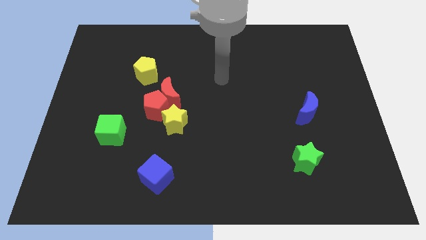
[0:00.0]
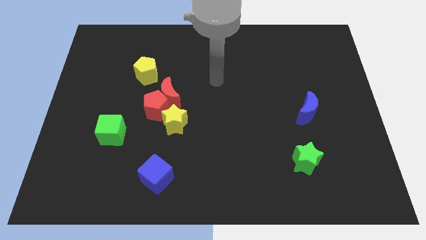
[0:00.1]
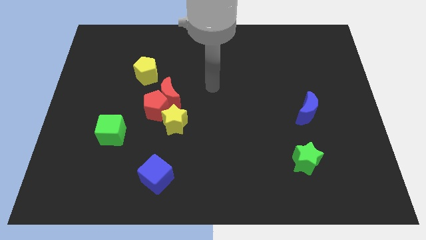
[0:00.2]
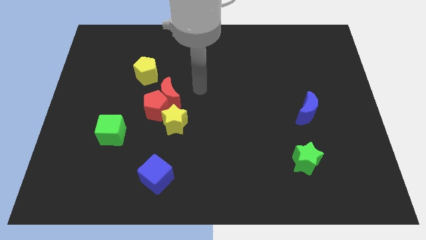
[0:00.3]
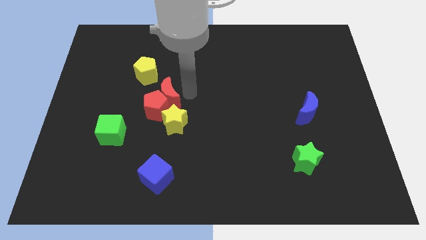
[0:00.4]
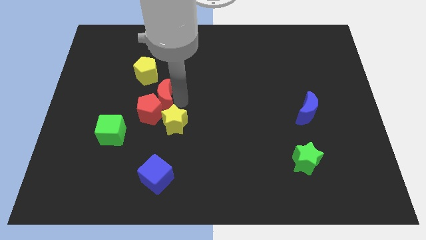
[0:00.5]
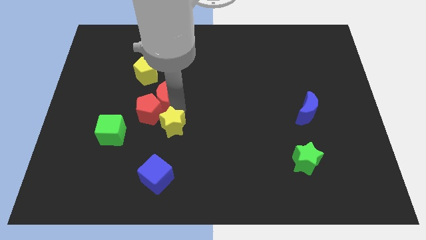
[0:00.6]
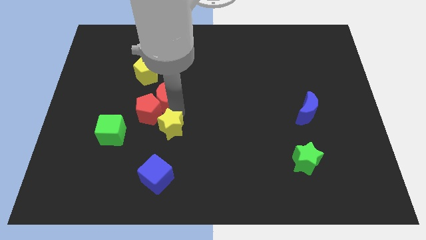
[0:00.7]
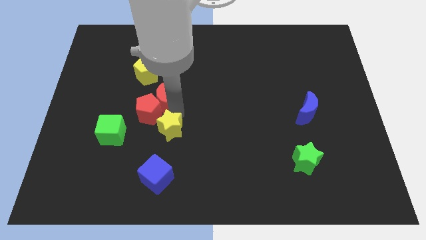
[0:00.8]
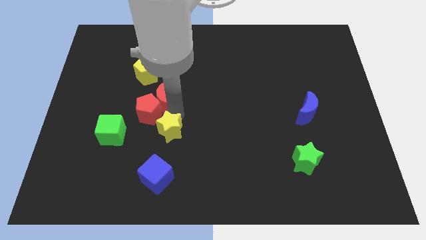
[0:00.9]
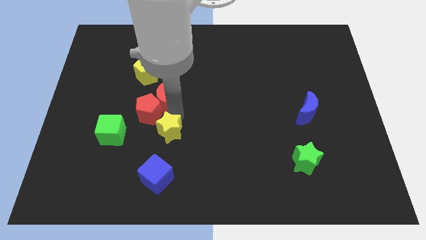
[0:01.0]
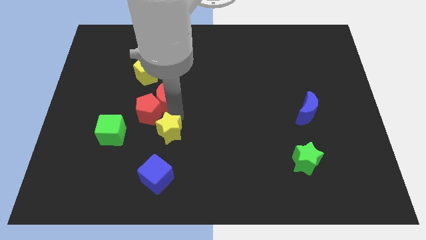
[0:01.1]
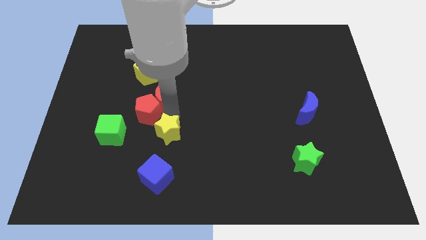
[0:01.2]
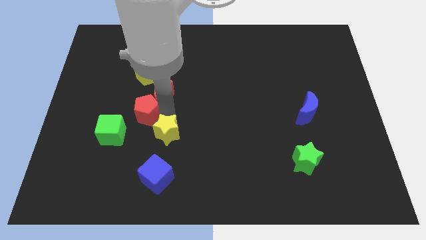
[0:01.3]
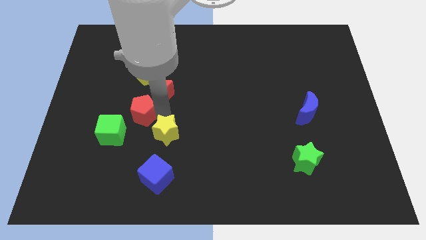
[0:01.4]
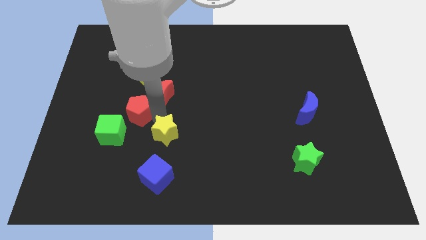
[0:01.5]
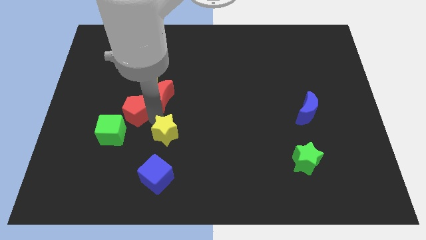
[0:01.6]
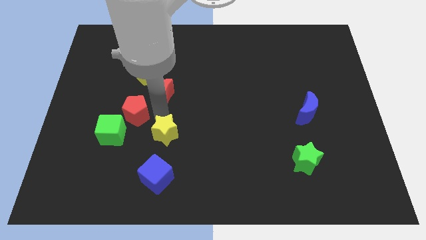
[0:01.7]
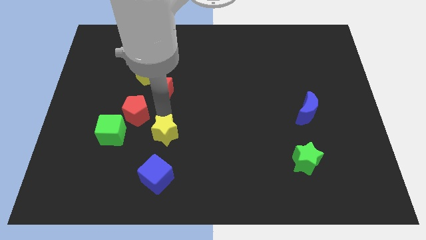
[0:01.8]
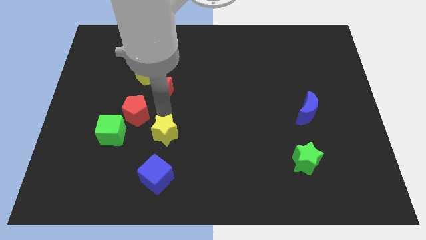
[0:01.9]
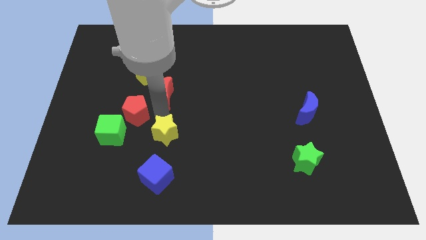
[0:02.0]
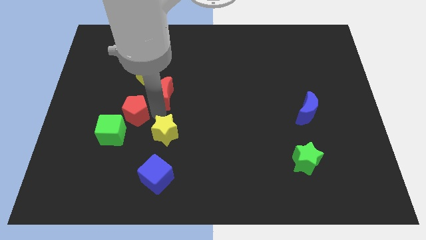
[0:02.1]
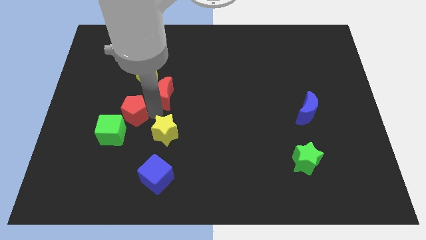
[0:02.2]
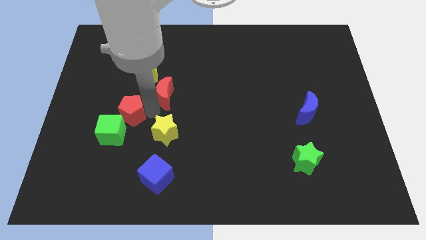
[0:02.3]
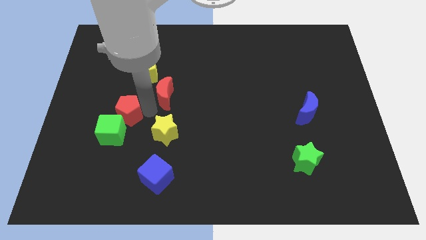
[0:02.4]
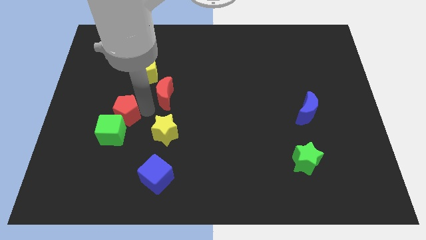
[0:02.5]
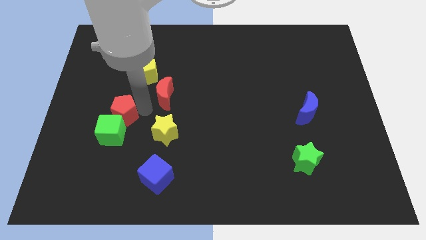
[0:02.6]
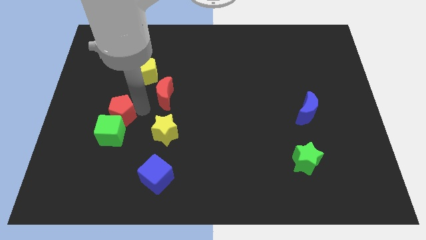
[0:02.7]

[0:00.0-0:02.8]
separate the red pentagon from the red moon and yellow star

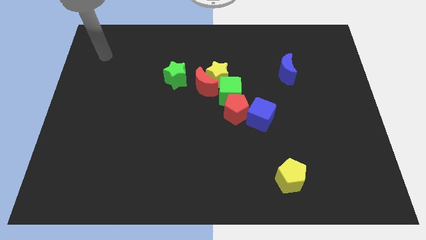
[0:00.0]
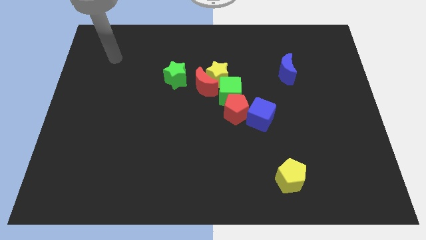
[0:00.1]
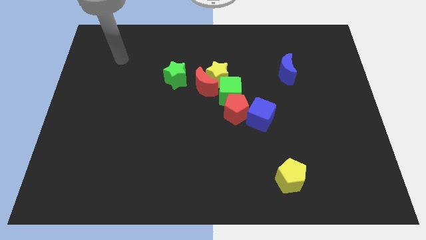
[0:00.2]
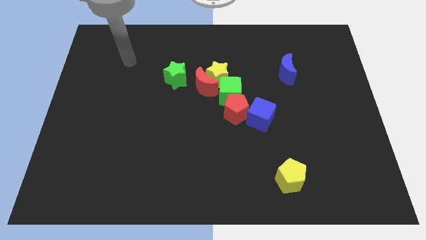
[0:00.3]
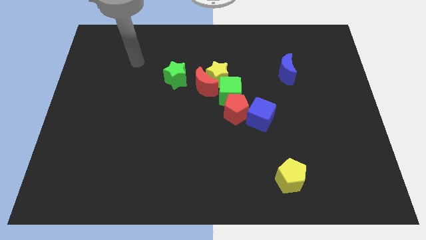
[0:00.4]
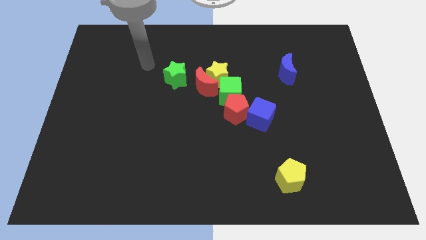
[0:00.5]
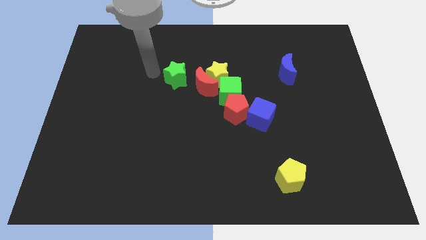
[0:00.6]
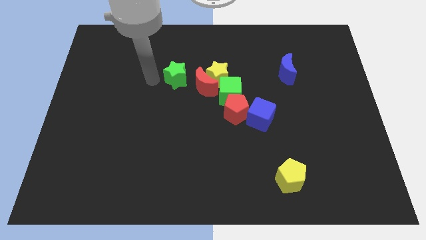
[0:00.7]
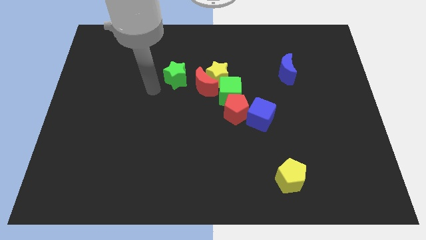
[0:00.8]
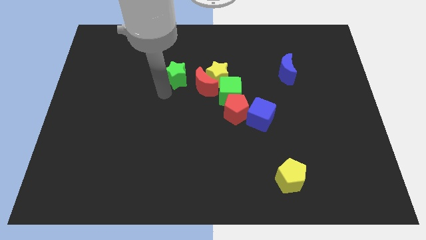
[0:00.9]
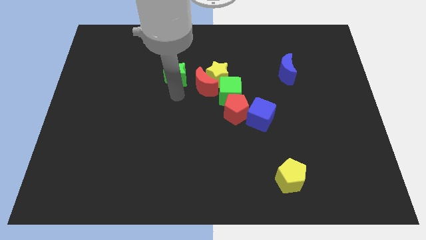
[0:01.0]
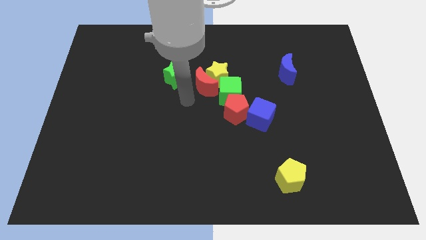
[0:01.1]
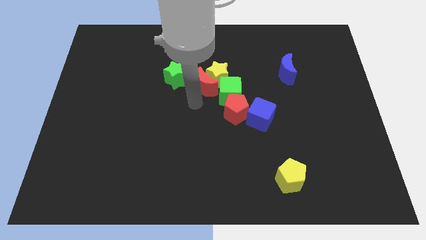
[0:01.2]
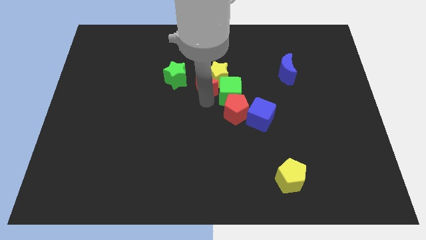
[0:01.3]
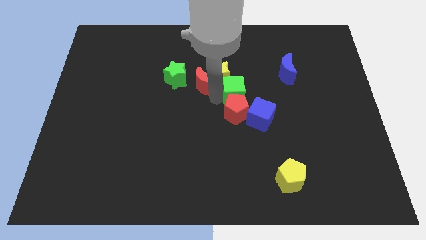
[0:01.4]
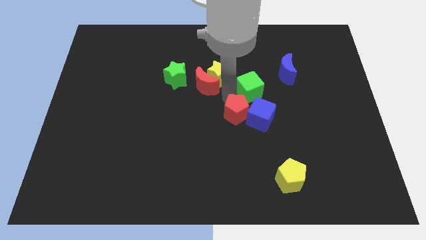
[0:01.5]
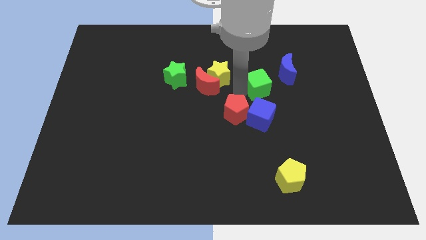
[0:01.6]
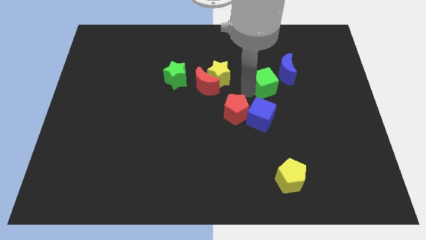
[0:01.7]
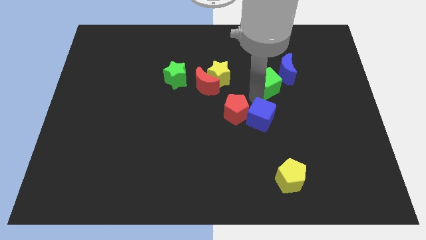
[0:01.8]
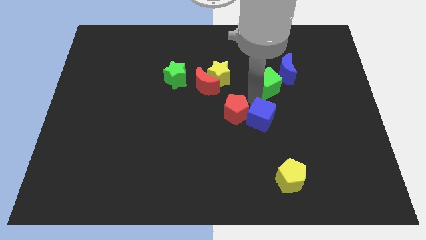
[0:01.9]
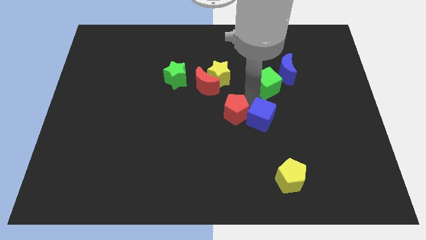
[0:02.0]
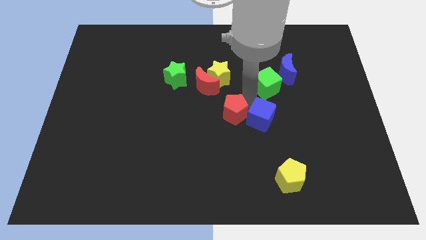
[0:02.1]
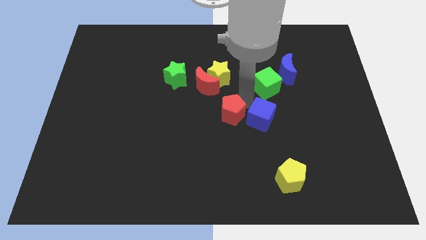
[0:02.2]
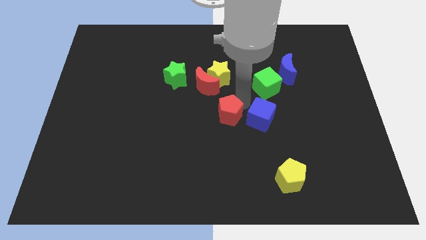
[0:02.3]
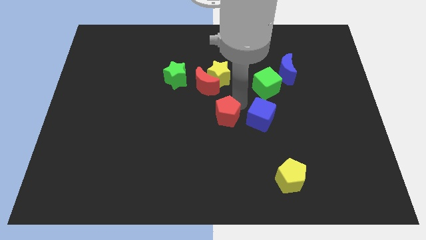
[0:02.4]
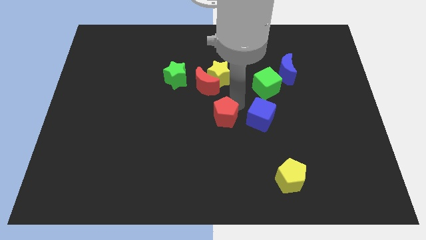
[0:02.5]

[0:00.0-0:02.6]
move the red pentagon away from the green cube and blue cube

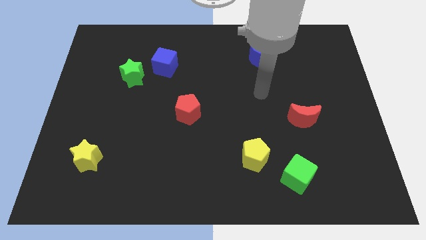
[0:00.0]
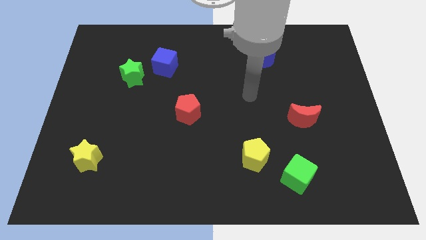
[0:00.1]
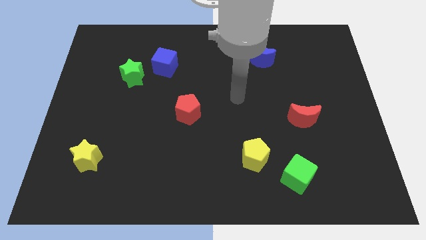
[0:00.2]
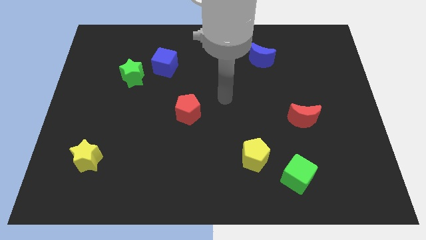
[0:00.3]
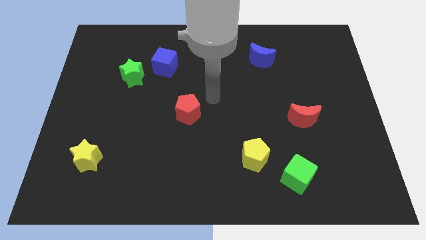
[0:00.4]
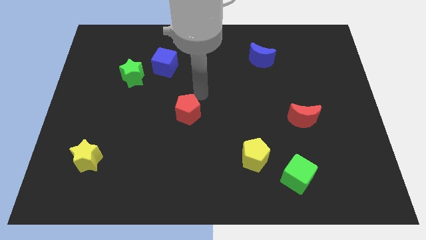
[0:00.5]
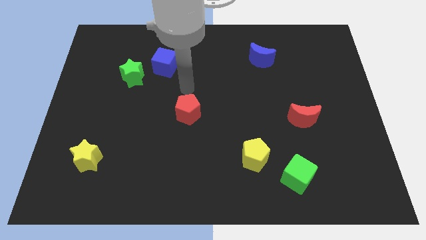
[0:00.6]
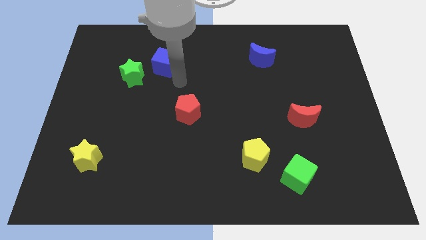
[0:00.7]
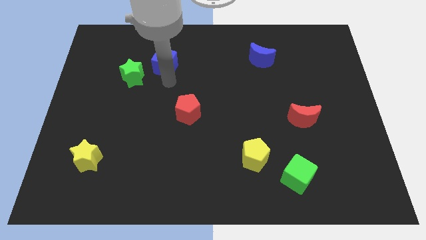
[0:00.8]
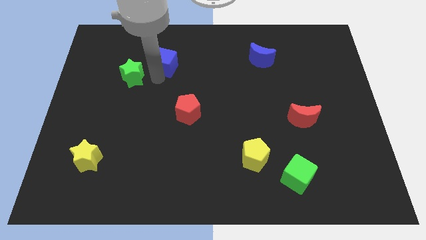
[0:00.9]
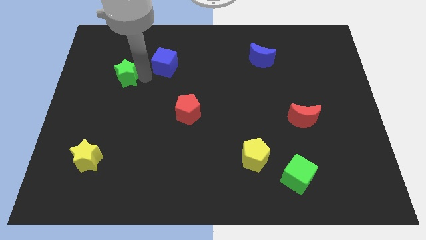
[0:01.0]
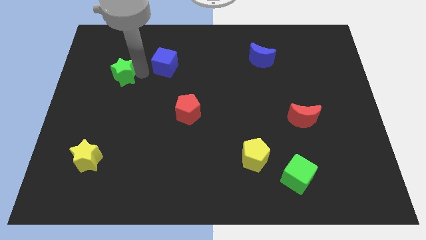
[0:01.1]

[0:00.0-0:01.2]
move the blue cube away from the green star

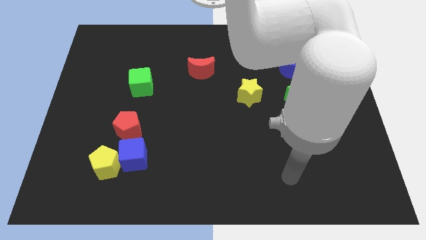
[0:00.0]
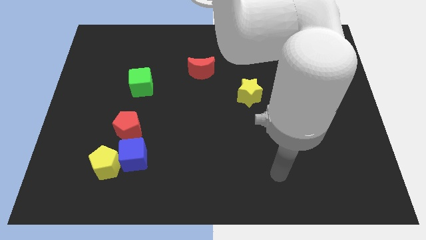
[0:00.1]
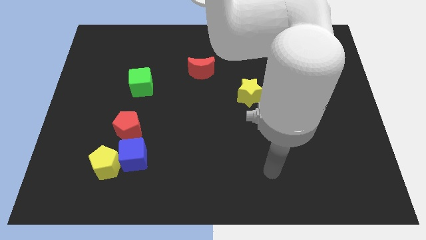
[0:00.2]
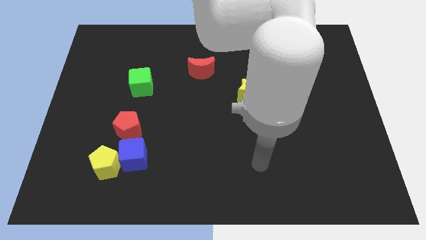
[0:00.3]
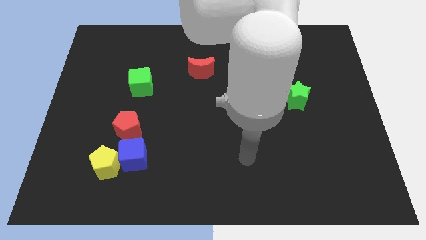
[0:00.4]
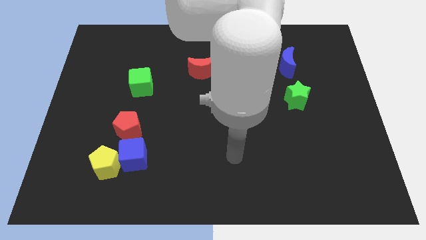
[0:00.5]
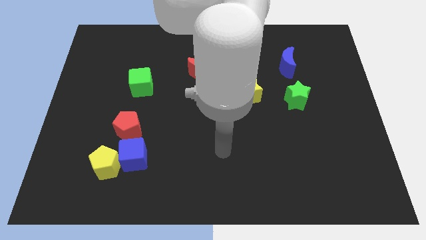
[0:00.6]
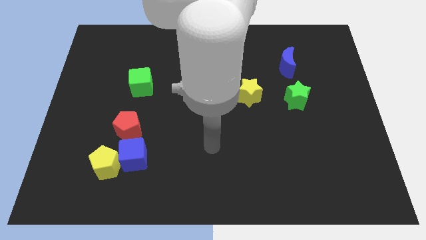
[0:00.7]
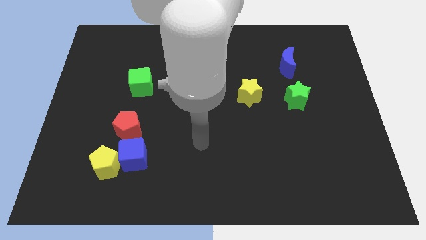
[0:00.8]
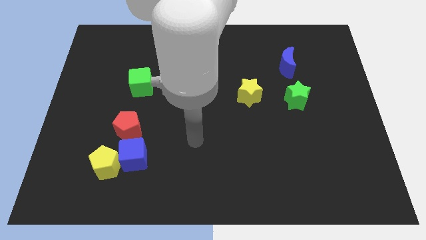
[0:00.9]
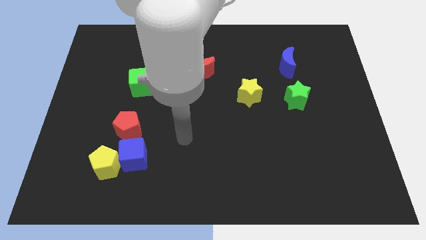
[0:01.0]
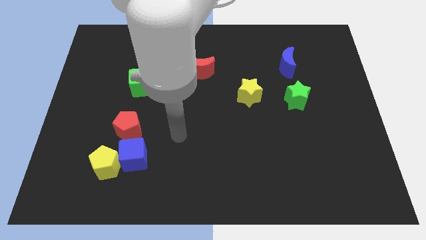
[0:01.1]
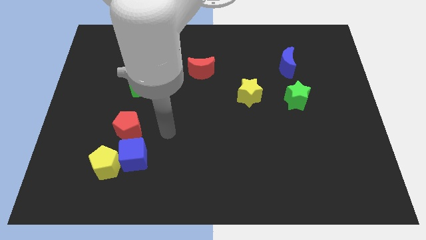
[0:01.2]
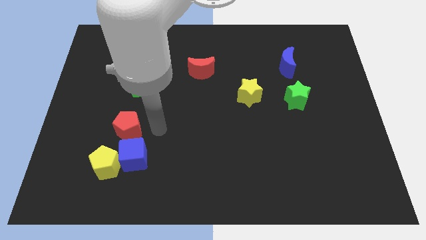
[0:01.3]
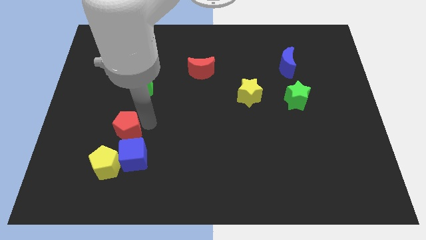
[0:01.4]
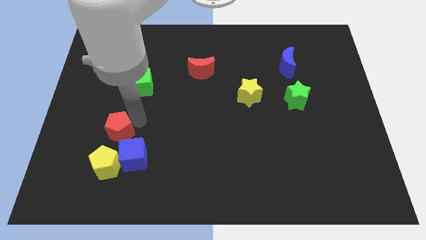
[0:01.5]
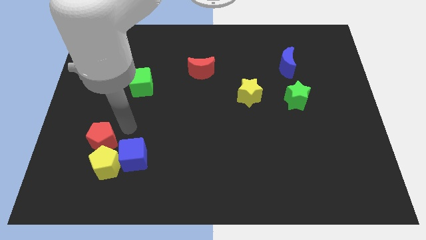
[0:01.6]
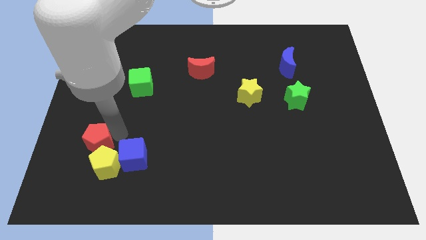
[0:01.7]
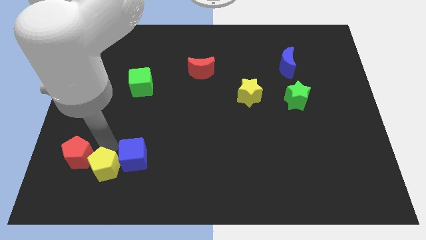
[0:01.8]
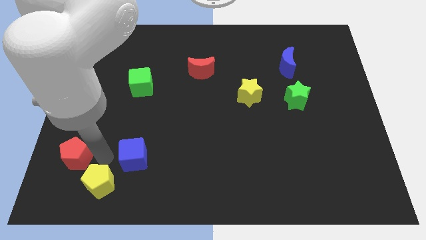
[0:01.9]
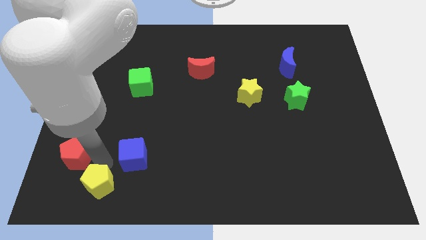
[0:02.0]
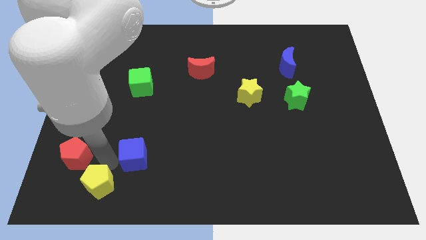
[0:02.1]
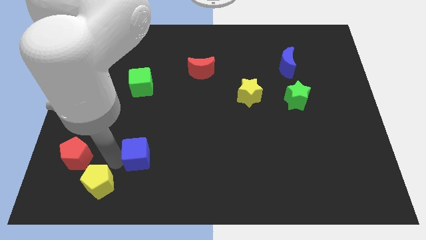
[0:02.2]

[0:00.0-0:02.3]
pull the blue cube apart from the yellow pentagon and red pentagon

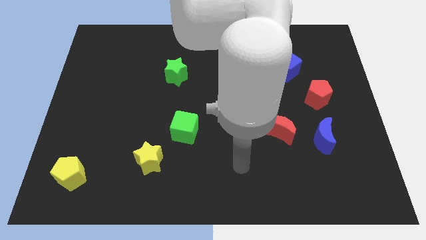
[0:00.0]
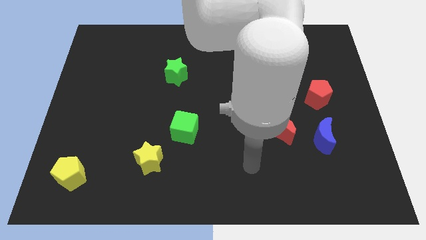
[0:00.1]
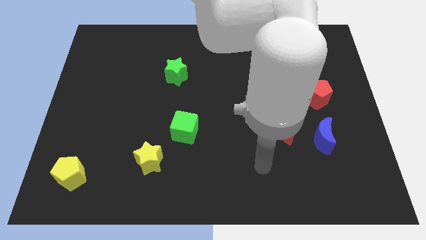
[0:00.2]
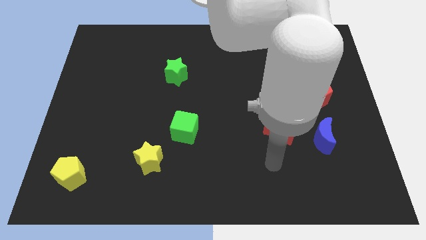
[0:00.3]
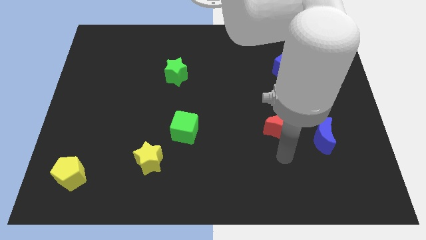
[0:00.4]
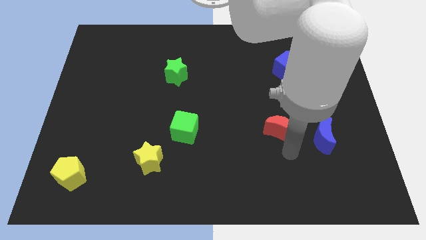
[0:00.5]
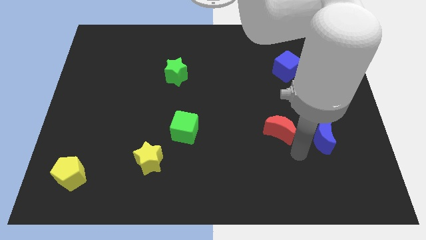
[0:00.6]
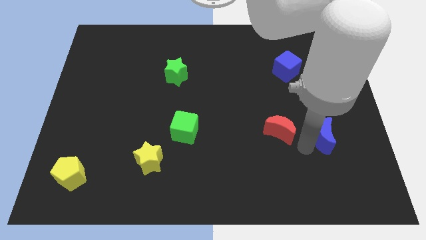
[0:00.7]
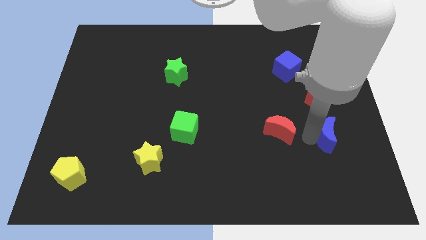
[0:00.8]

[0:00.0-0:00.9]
move the red moon away from the blue moon
